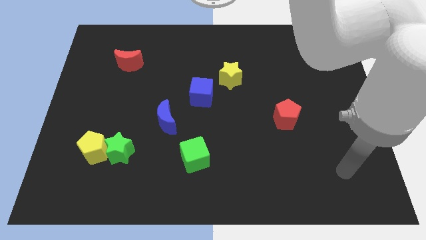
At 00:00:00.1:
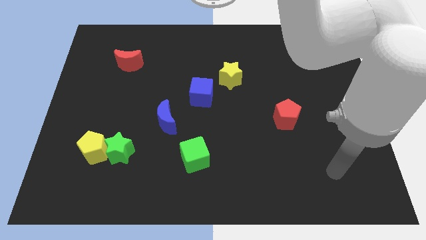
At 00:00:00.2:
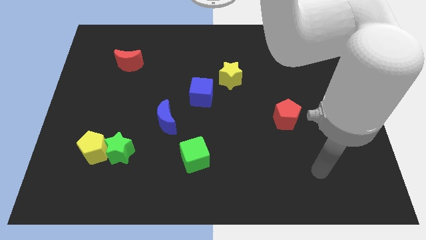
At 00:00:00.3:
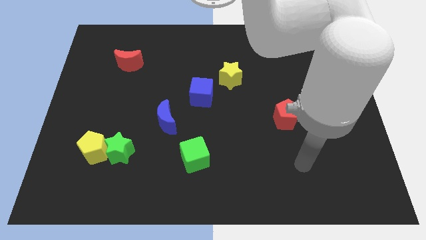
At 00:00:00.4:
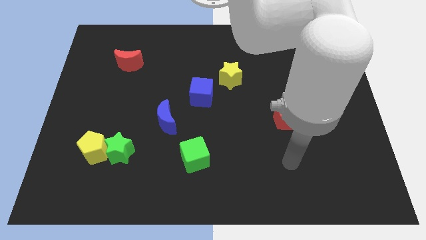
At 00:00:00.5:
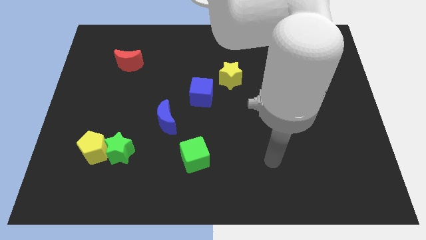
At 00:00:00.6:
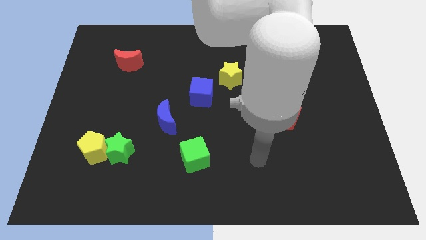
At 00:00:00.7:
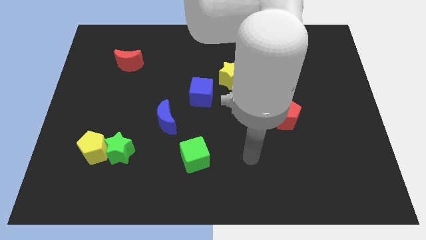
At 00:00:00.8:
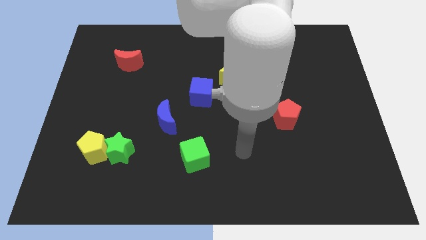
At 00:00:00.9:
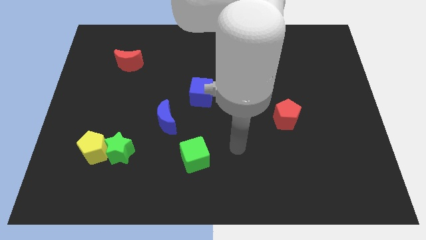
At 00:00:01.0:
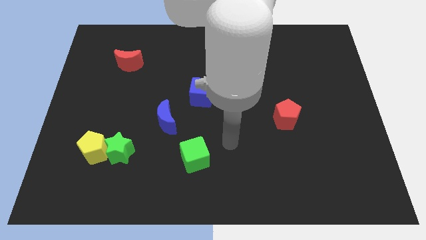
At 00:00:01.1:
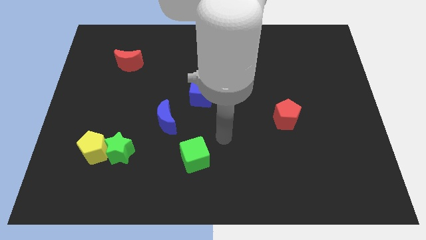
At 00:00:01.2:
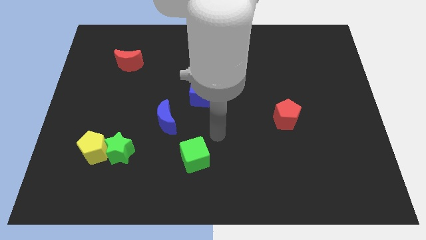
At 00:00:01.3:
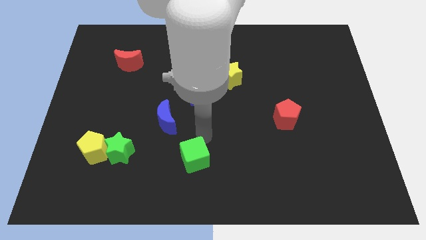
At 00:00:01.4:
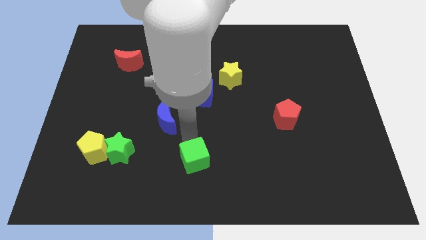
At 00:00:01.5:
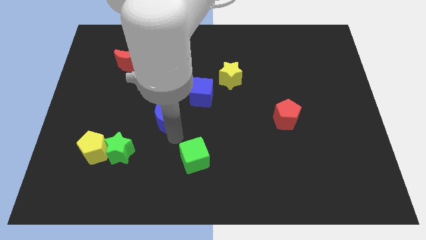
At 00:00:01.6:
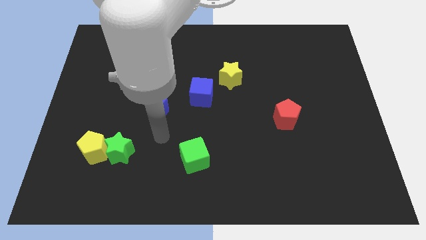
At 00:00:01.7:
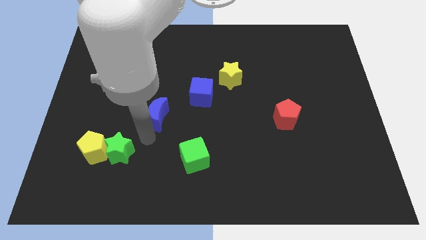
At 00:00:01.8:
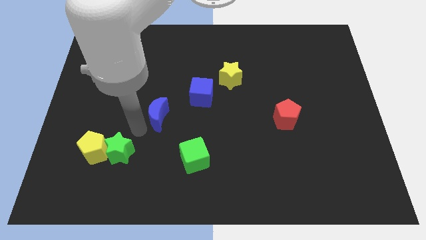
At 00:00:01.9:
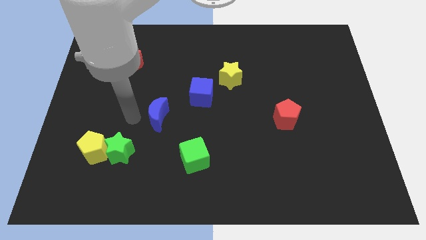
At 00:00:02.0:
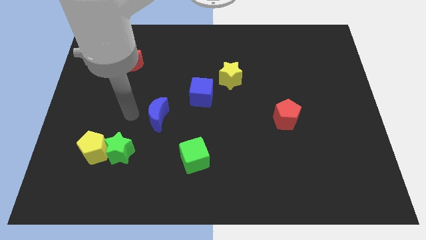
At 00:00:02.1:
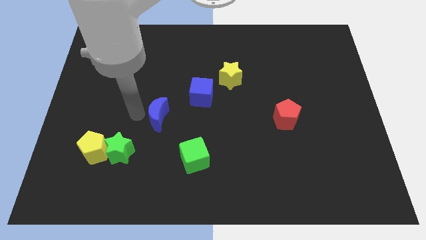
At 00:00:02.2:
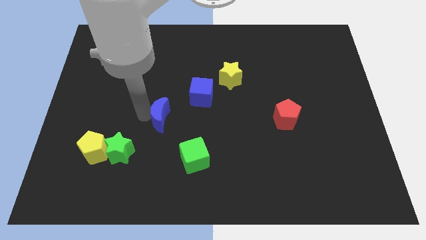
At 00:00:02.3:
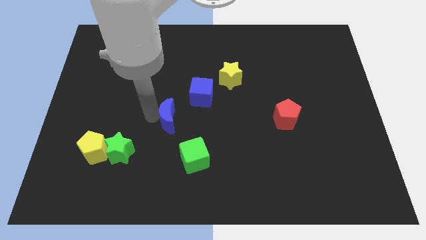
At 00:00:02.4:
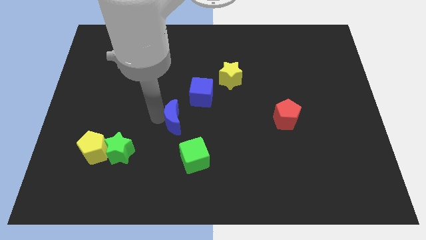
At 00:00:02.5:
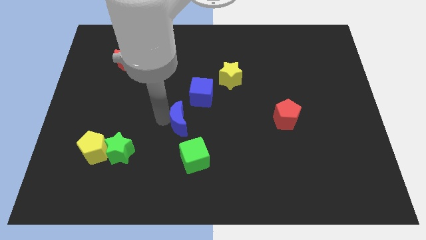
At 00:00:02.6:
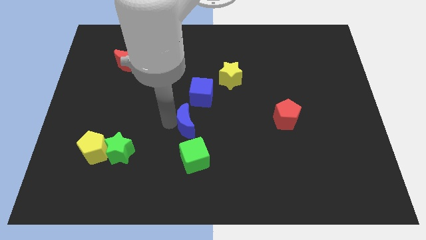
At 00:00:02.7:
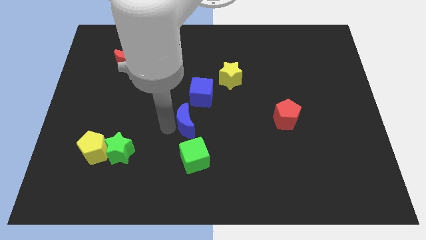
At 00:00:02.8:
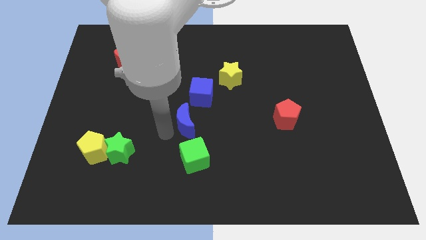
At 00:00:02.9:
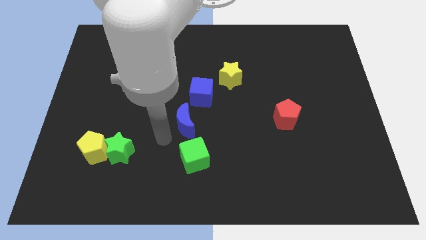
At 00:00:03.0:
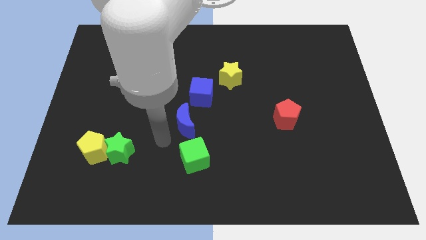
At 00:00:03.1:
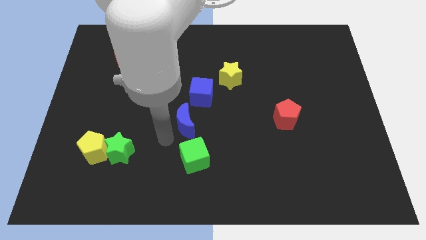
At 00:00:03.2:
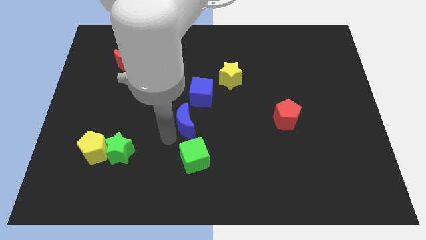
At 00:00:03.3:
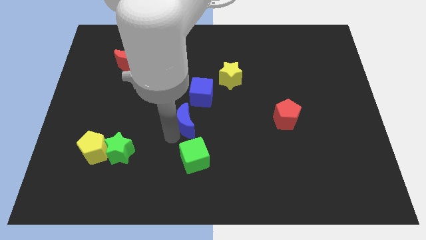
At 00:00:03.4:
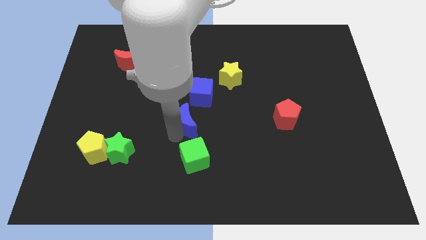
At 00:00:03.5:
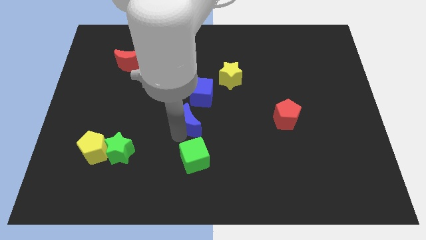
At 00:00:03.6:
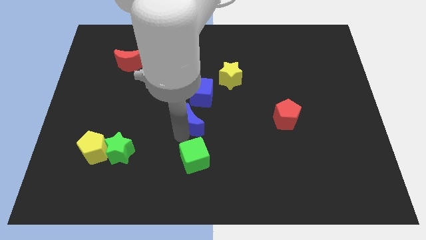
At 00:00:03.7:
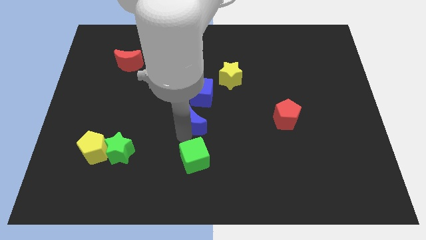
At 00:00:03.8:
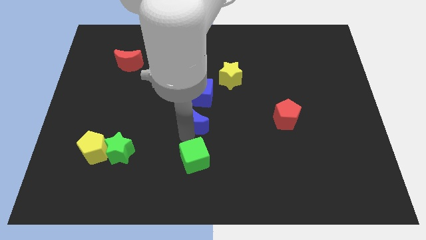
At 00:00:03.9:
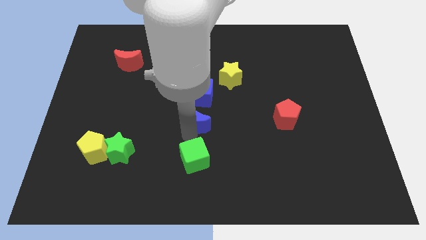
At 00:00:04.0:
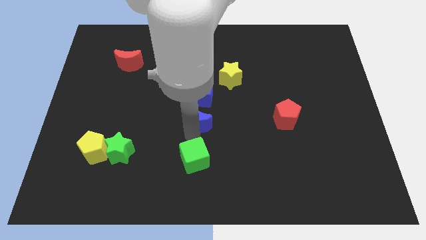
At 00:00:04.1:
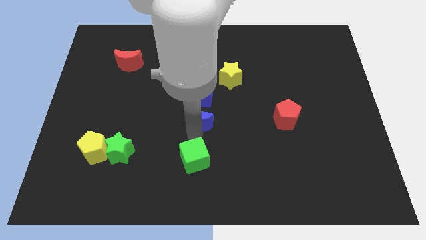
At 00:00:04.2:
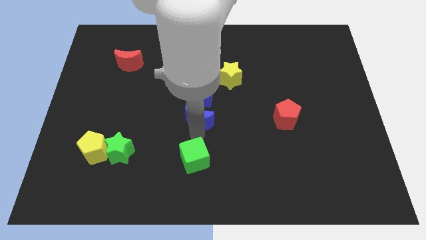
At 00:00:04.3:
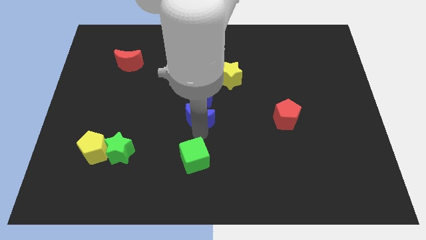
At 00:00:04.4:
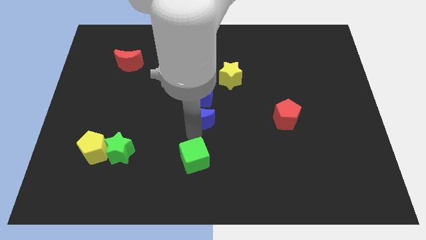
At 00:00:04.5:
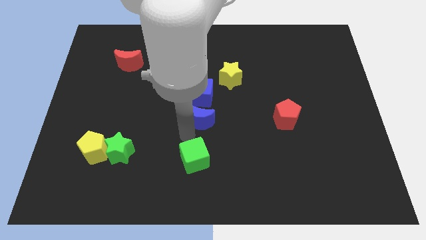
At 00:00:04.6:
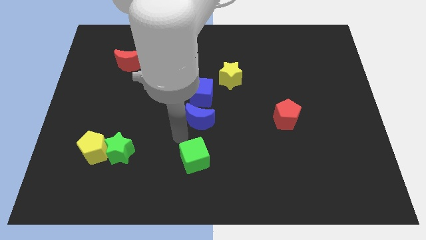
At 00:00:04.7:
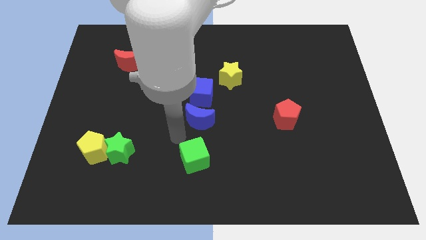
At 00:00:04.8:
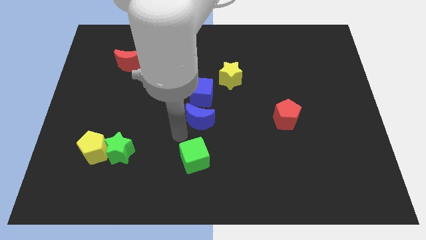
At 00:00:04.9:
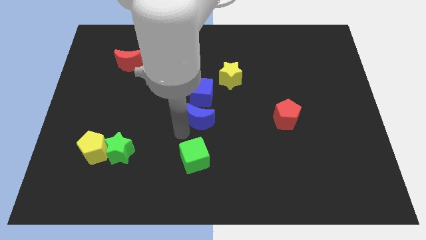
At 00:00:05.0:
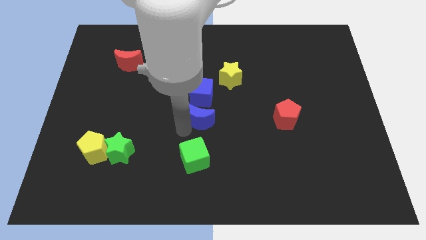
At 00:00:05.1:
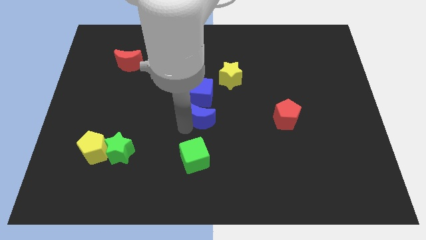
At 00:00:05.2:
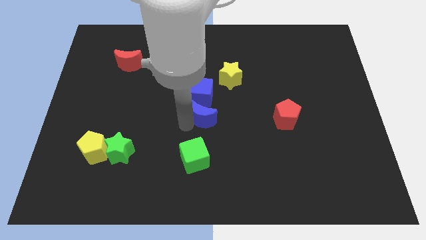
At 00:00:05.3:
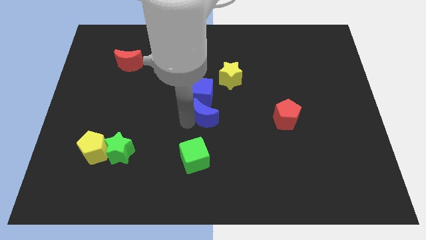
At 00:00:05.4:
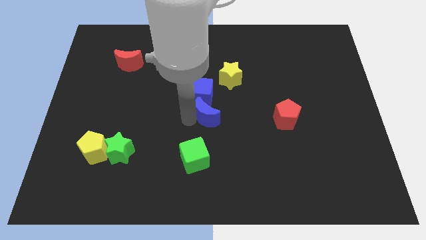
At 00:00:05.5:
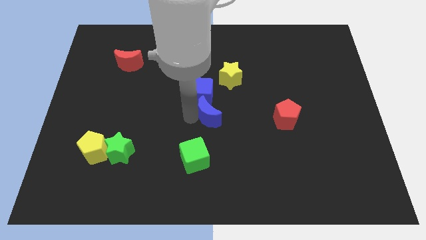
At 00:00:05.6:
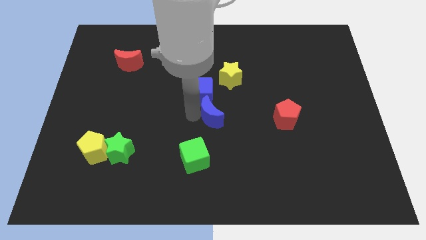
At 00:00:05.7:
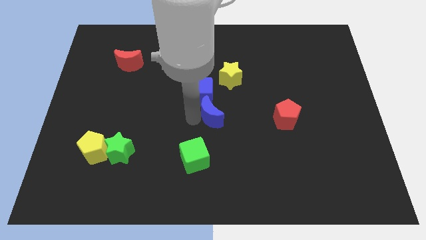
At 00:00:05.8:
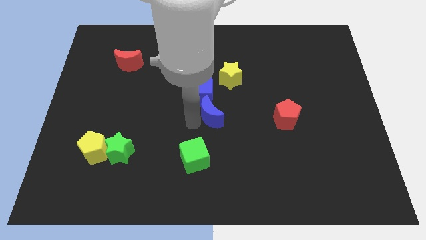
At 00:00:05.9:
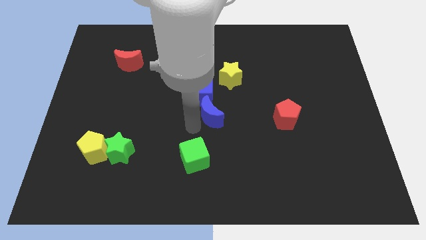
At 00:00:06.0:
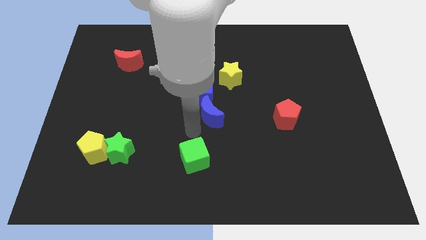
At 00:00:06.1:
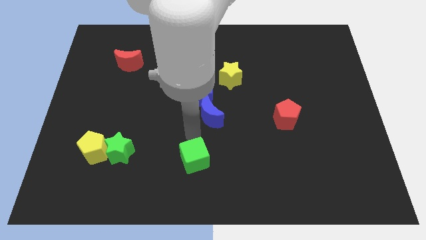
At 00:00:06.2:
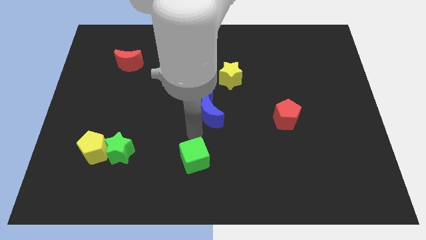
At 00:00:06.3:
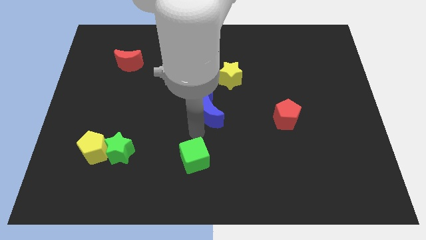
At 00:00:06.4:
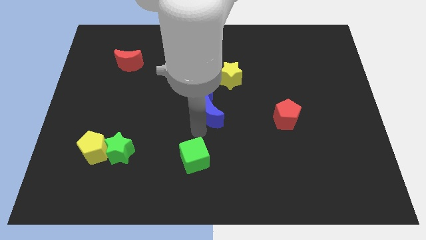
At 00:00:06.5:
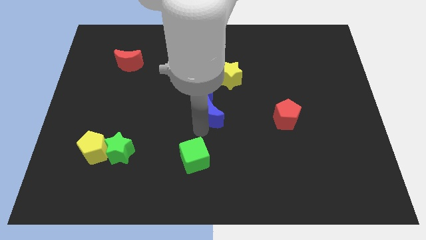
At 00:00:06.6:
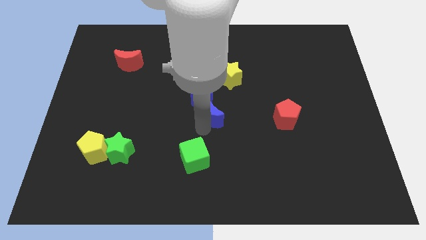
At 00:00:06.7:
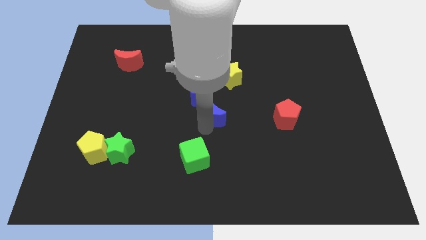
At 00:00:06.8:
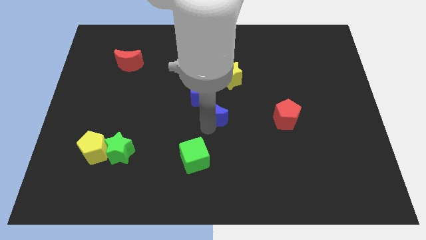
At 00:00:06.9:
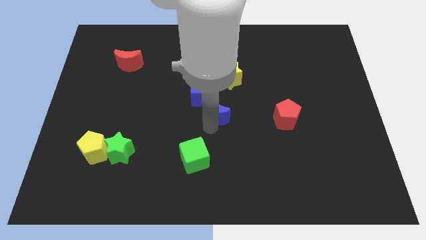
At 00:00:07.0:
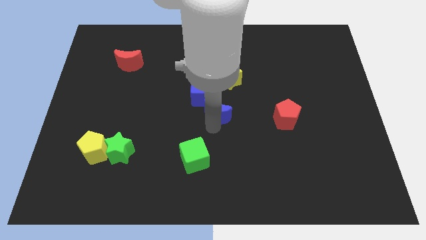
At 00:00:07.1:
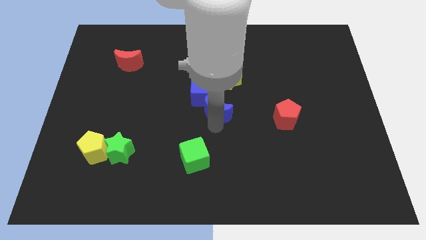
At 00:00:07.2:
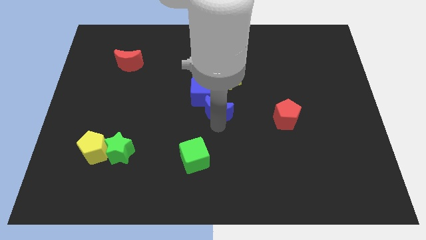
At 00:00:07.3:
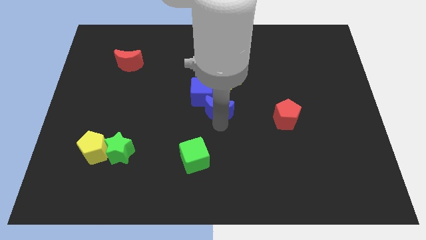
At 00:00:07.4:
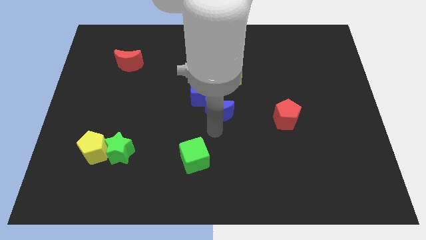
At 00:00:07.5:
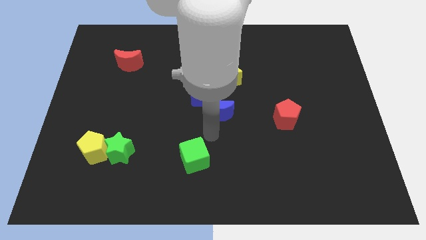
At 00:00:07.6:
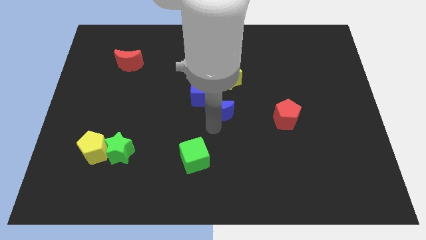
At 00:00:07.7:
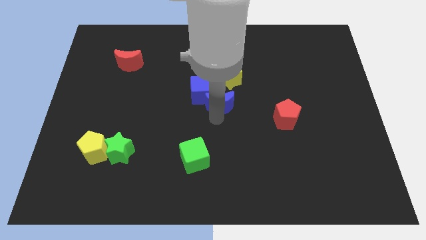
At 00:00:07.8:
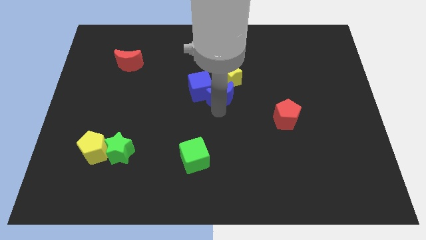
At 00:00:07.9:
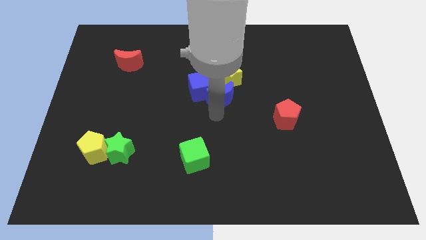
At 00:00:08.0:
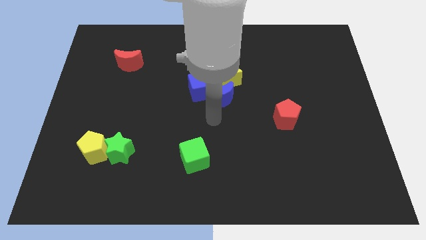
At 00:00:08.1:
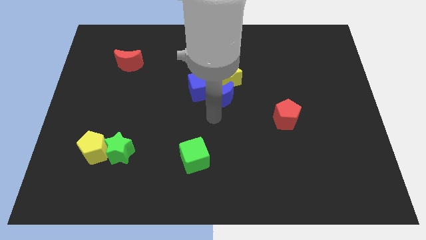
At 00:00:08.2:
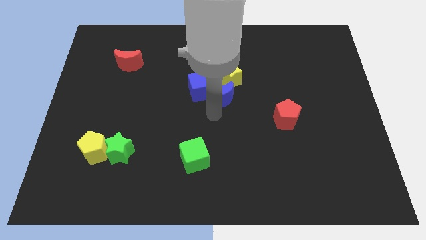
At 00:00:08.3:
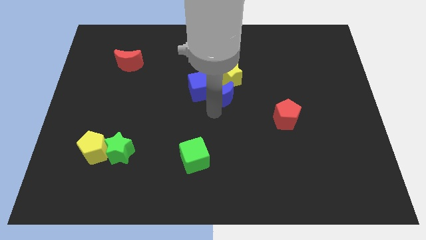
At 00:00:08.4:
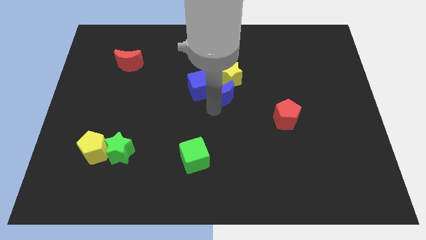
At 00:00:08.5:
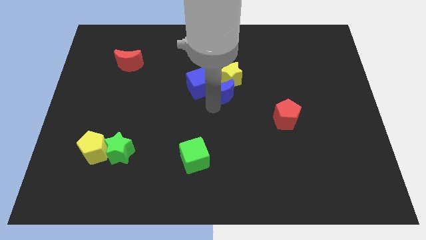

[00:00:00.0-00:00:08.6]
move the blue moon towards the yellow star
